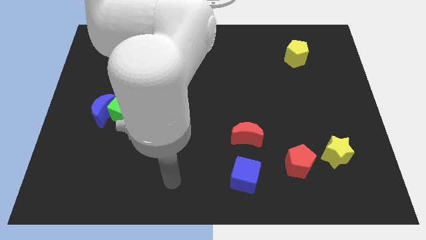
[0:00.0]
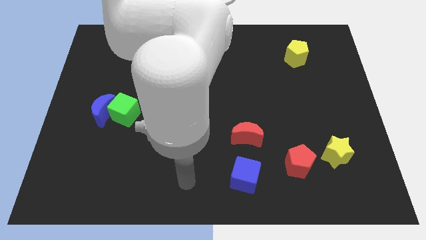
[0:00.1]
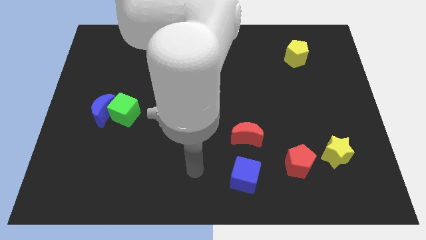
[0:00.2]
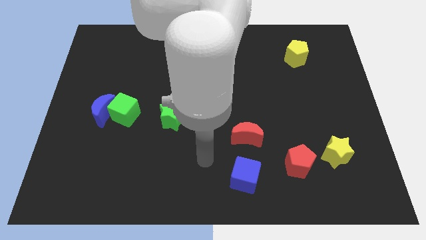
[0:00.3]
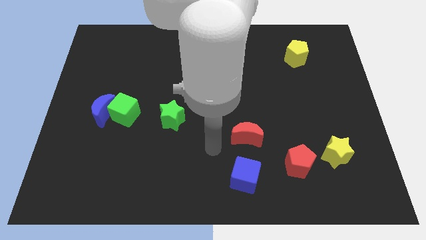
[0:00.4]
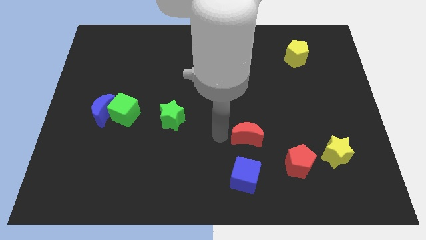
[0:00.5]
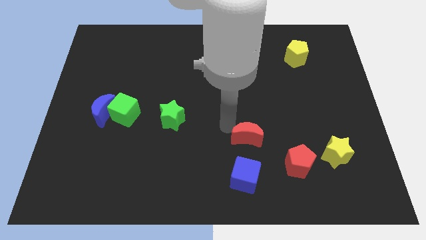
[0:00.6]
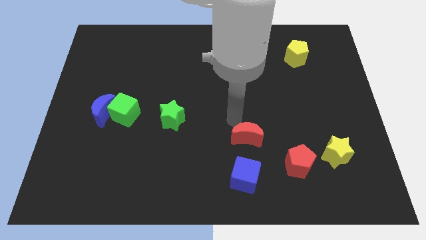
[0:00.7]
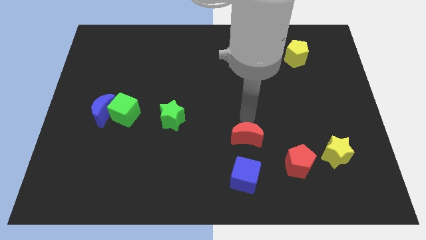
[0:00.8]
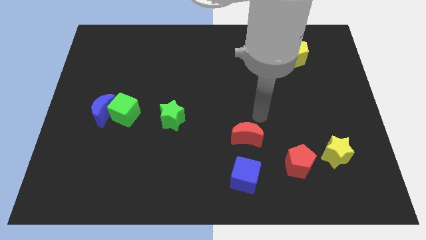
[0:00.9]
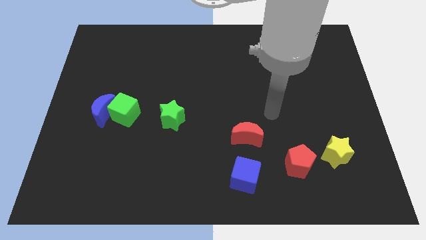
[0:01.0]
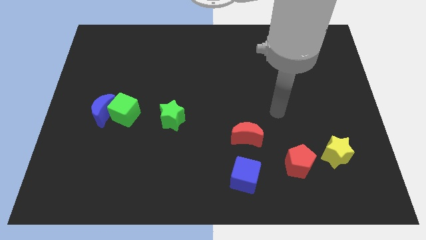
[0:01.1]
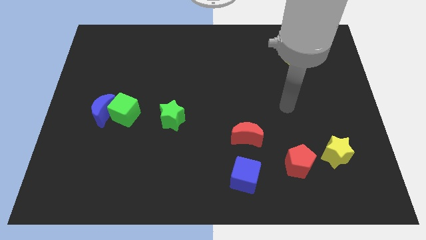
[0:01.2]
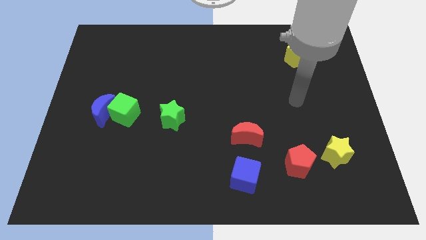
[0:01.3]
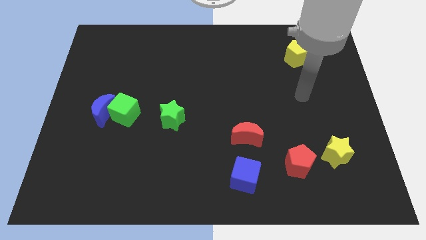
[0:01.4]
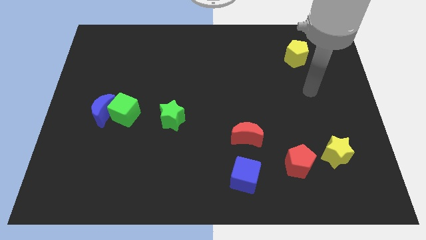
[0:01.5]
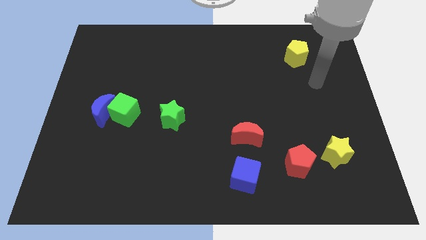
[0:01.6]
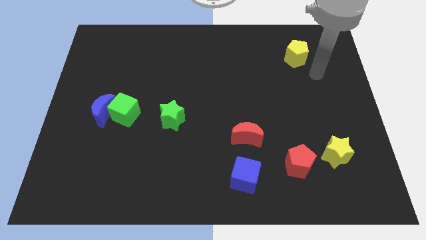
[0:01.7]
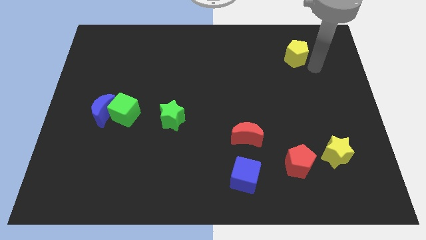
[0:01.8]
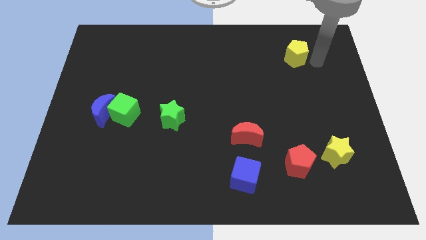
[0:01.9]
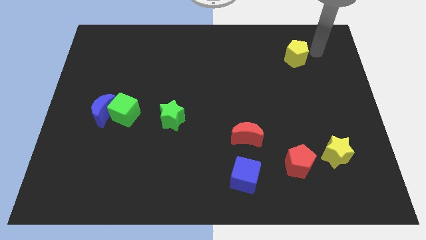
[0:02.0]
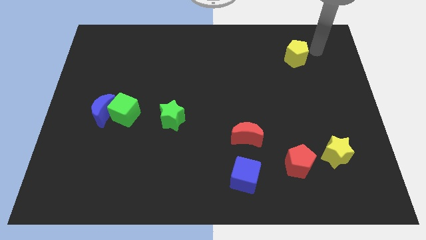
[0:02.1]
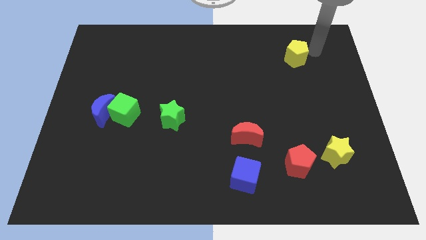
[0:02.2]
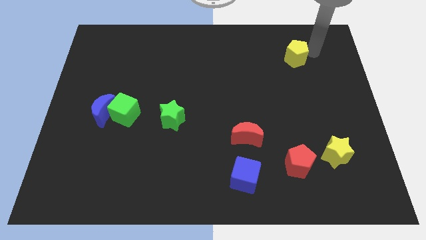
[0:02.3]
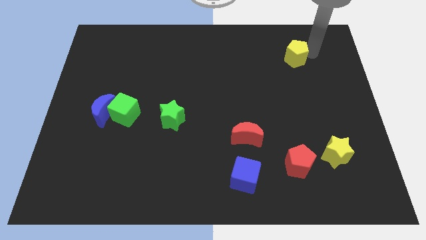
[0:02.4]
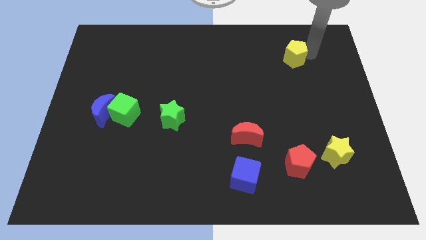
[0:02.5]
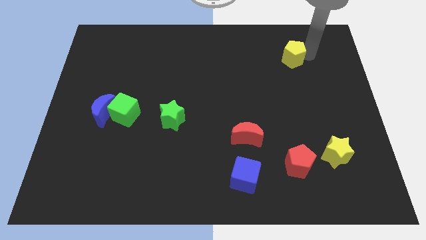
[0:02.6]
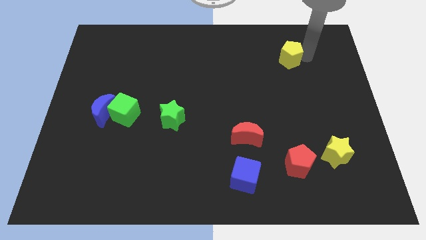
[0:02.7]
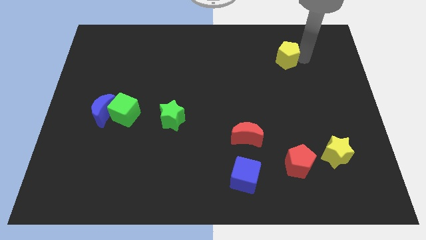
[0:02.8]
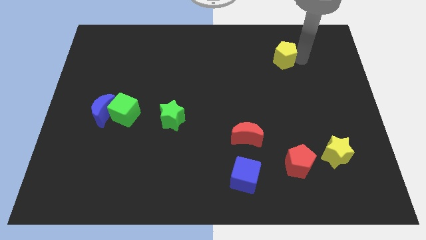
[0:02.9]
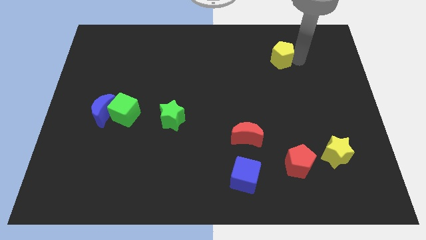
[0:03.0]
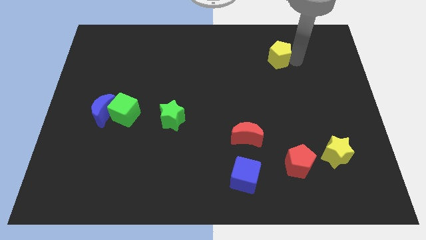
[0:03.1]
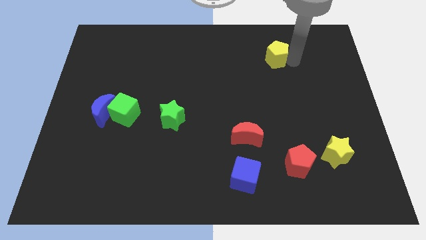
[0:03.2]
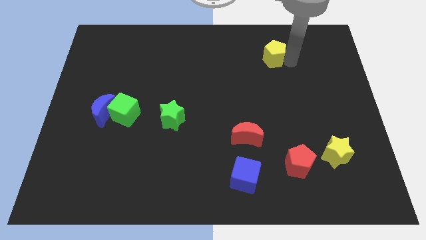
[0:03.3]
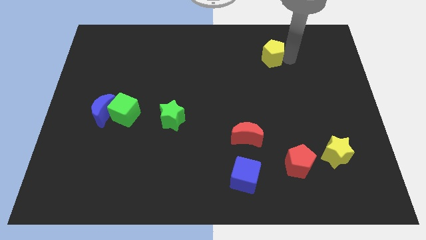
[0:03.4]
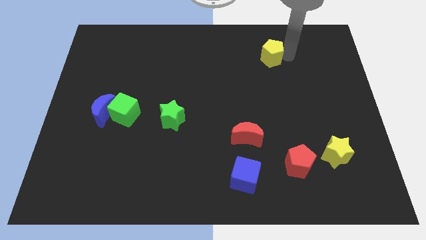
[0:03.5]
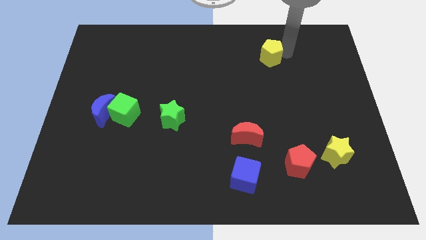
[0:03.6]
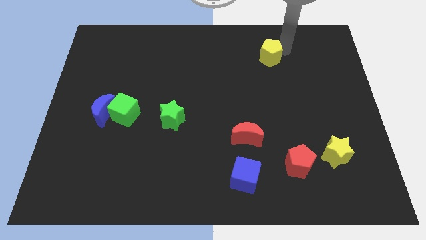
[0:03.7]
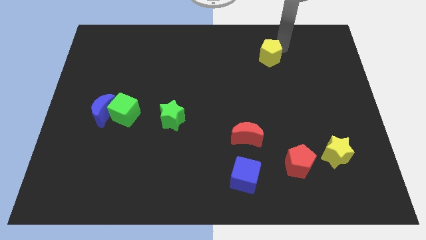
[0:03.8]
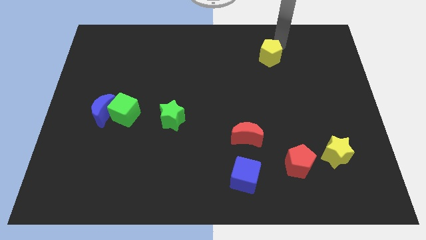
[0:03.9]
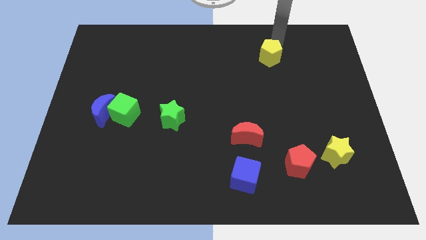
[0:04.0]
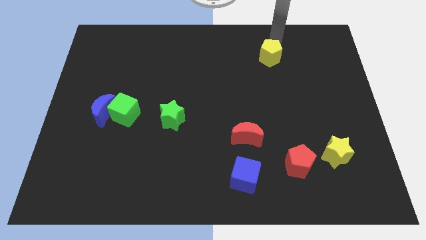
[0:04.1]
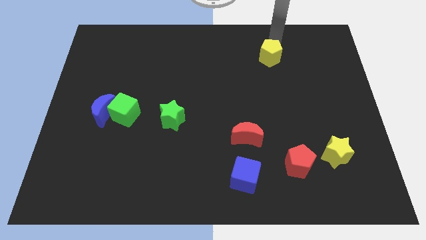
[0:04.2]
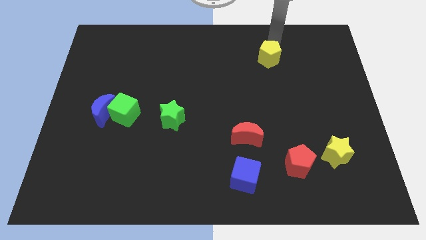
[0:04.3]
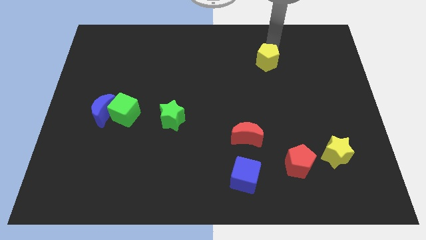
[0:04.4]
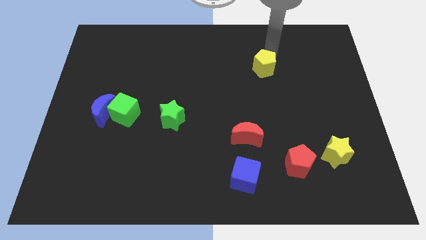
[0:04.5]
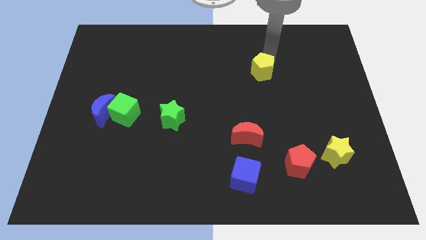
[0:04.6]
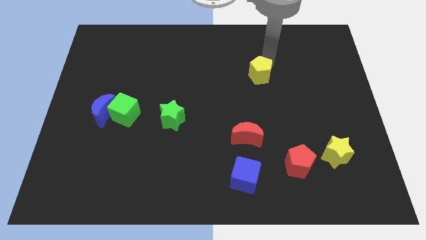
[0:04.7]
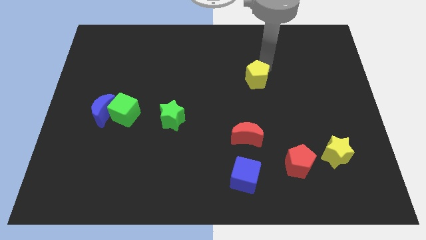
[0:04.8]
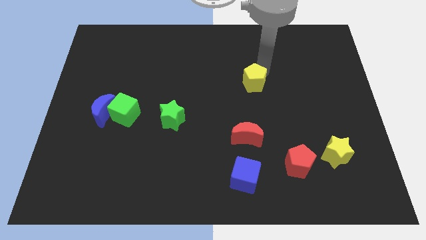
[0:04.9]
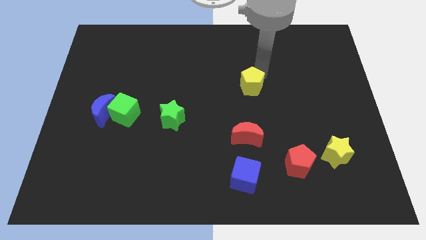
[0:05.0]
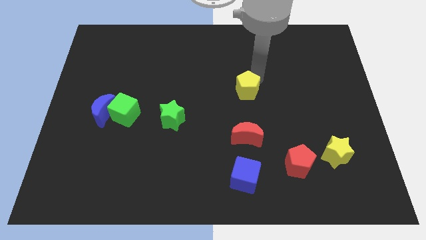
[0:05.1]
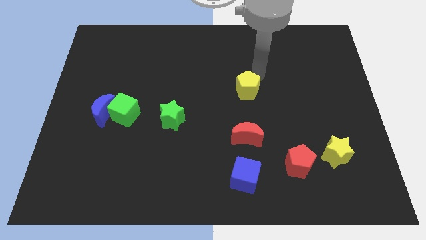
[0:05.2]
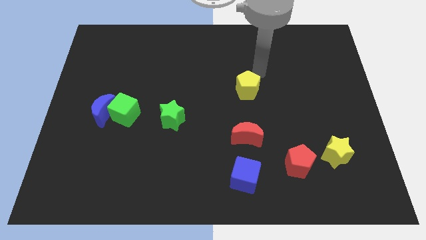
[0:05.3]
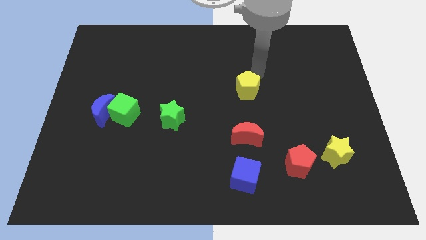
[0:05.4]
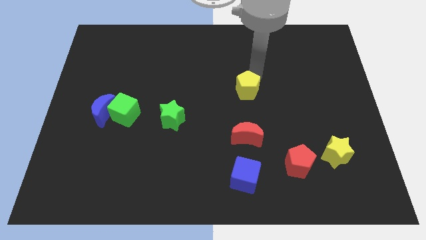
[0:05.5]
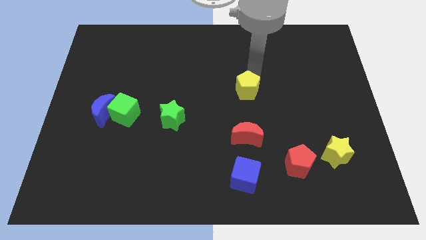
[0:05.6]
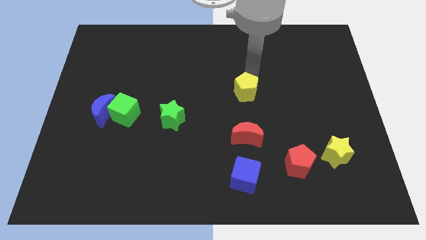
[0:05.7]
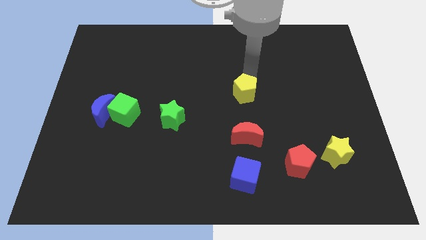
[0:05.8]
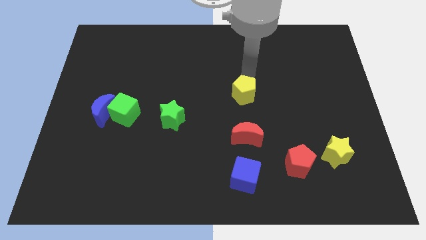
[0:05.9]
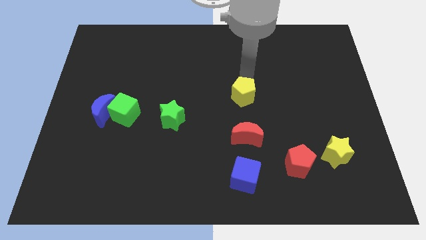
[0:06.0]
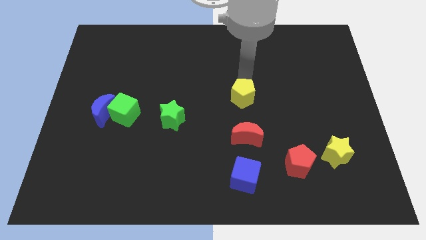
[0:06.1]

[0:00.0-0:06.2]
move the yellow pentagon down and left

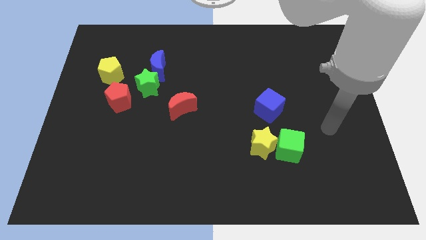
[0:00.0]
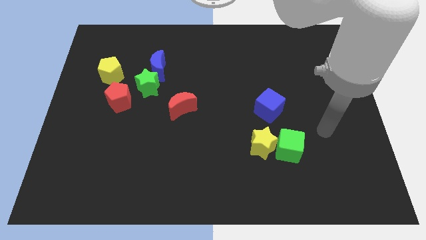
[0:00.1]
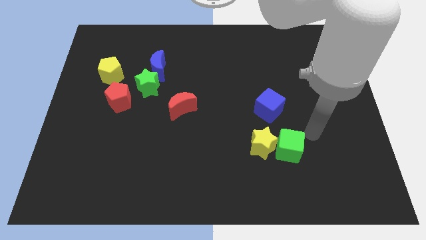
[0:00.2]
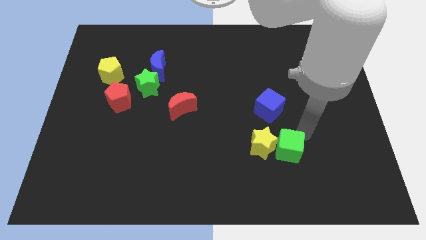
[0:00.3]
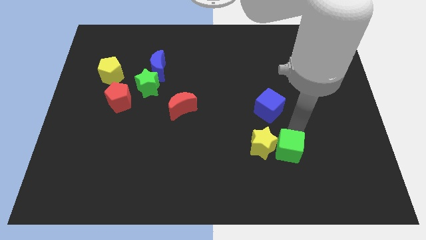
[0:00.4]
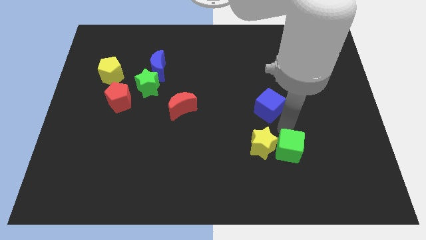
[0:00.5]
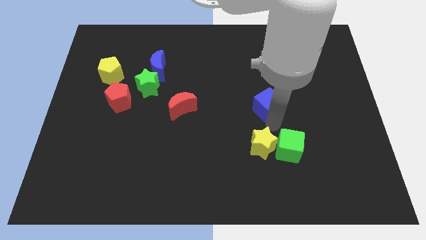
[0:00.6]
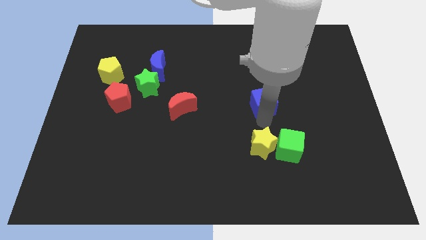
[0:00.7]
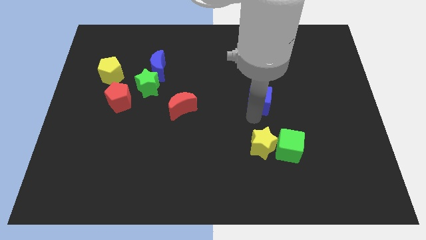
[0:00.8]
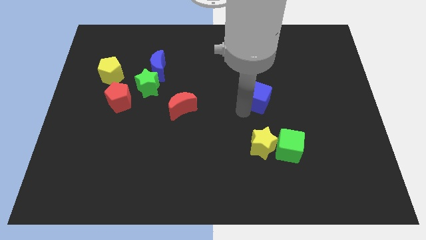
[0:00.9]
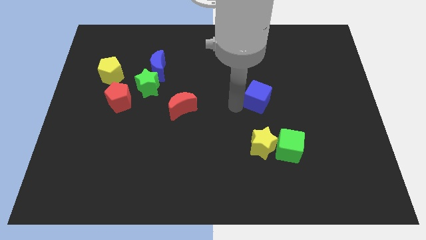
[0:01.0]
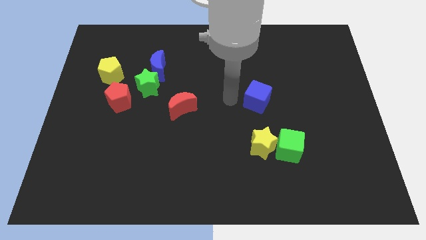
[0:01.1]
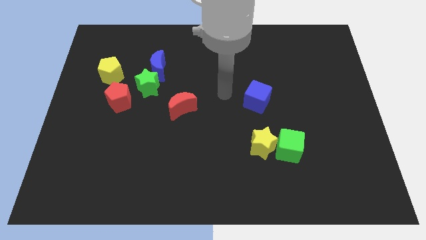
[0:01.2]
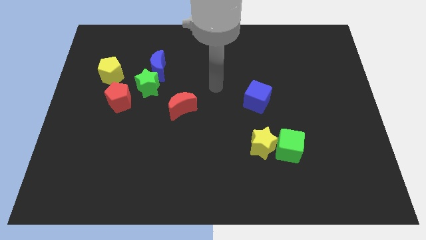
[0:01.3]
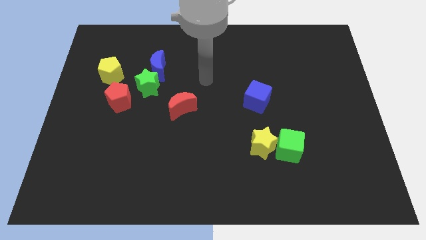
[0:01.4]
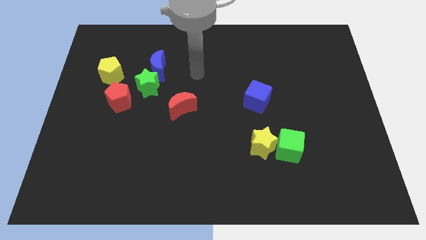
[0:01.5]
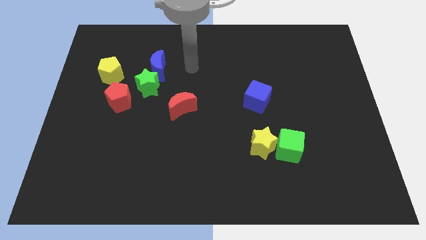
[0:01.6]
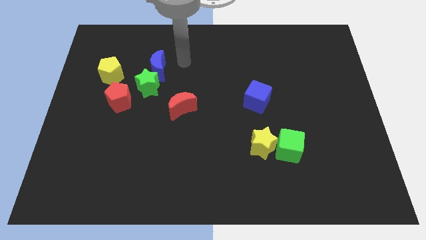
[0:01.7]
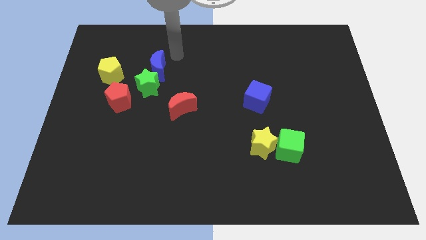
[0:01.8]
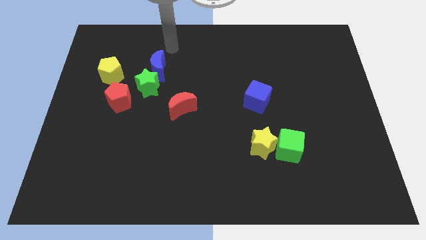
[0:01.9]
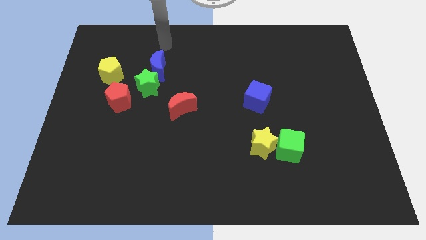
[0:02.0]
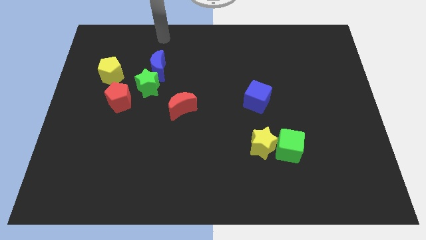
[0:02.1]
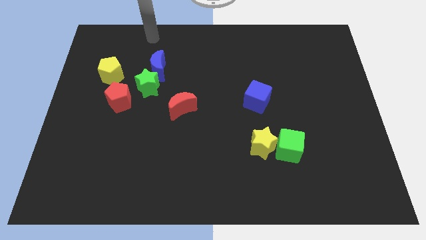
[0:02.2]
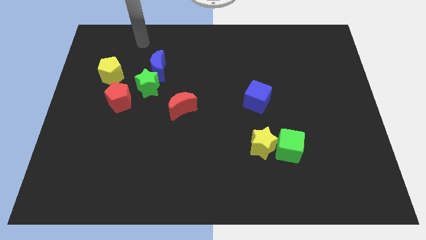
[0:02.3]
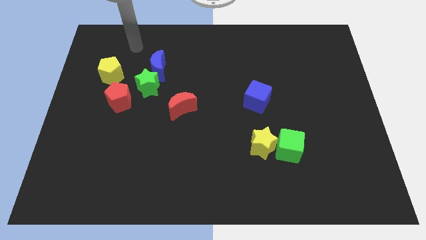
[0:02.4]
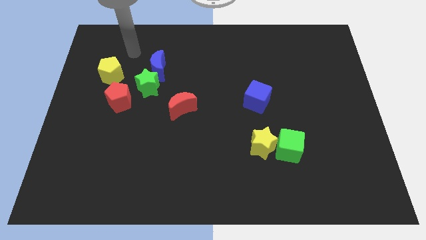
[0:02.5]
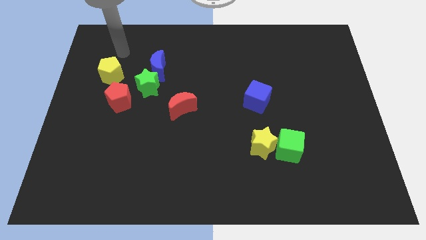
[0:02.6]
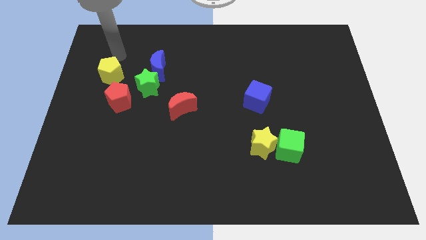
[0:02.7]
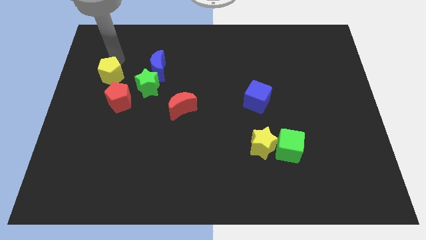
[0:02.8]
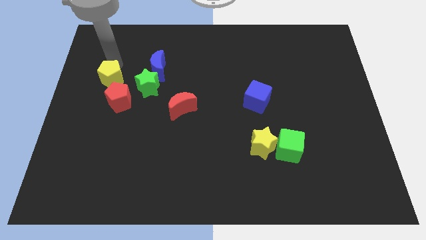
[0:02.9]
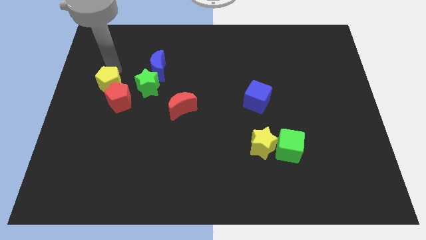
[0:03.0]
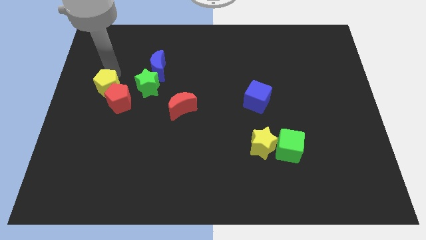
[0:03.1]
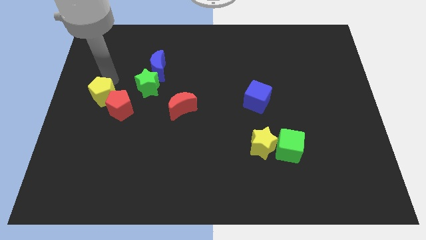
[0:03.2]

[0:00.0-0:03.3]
slide the yellow pentagon downwards a little
